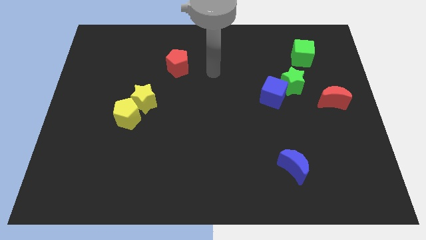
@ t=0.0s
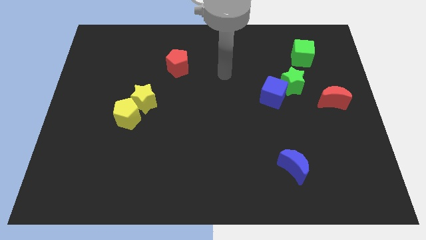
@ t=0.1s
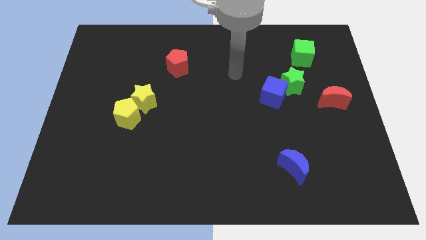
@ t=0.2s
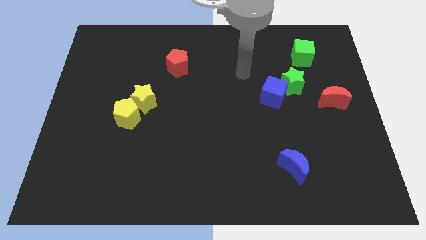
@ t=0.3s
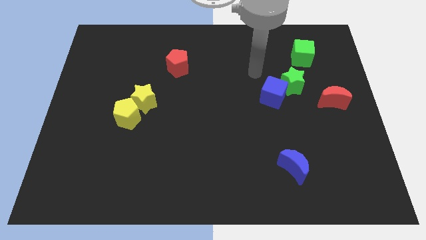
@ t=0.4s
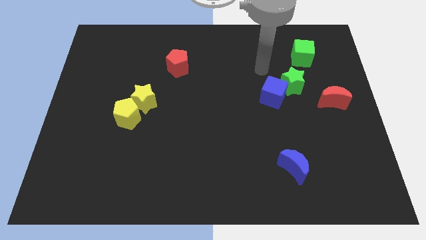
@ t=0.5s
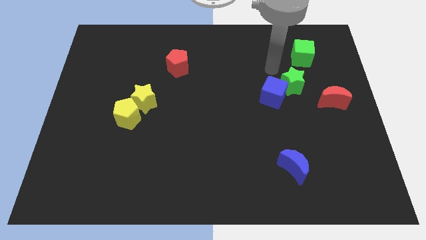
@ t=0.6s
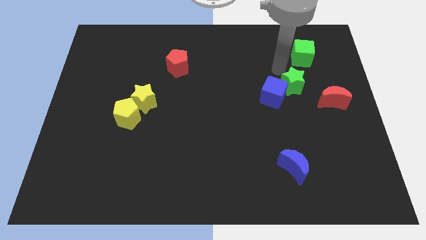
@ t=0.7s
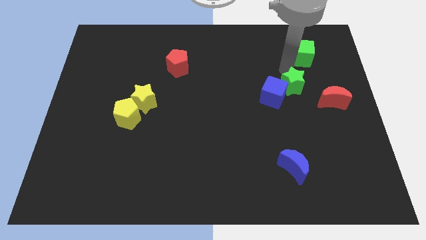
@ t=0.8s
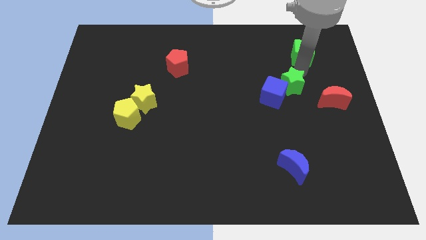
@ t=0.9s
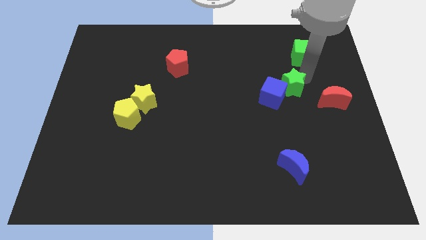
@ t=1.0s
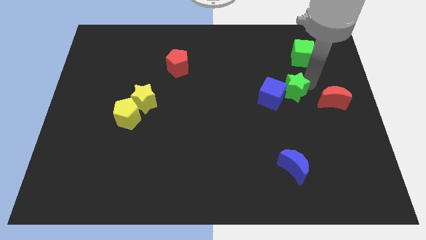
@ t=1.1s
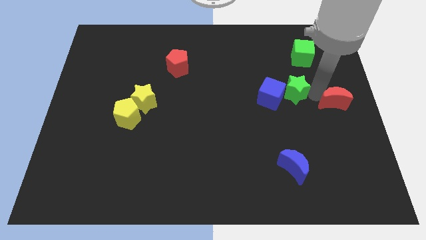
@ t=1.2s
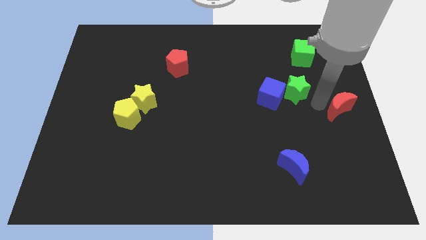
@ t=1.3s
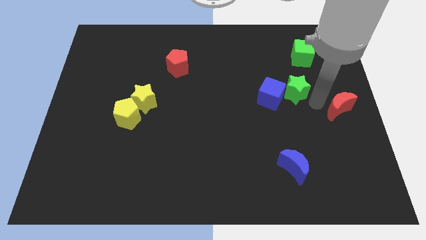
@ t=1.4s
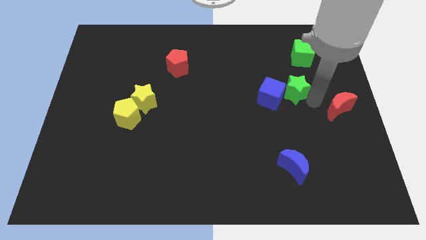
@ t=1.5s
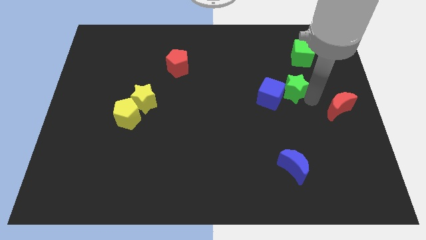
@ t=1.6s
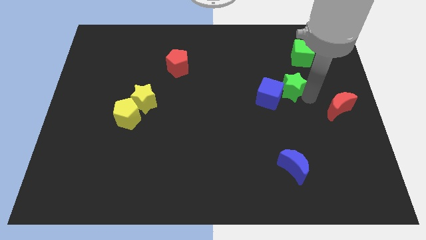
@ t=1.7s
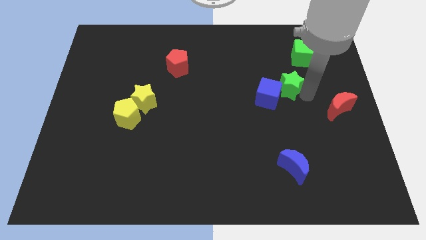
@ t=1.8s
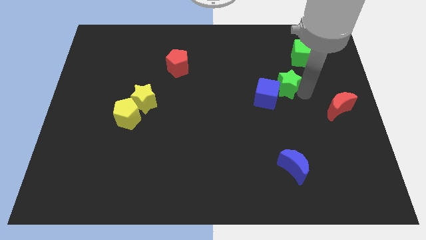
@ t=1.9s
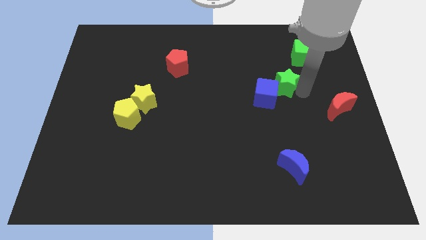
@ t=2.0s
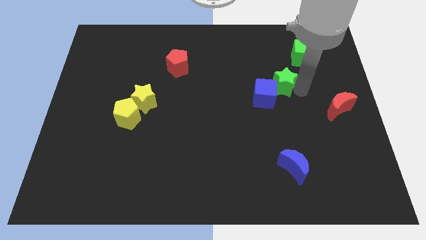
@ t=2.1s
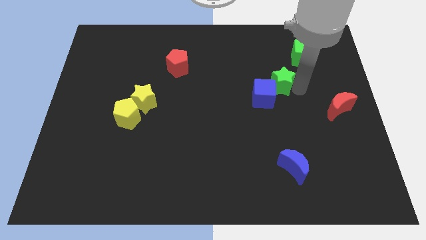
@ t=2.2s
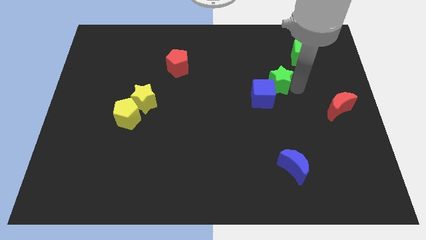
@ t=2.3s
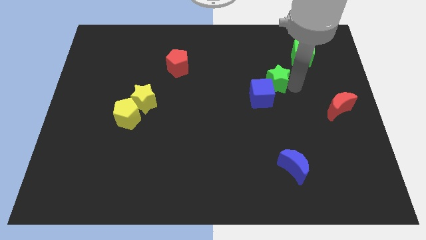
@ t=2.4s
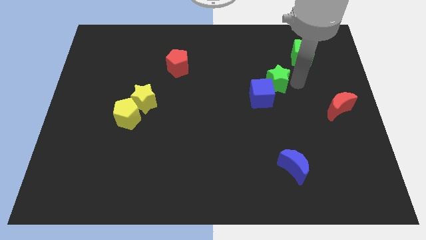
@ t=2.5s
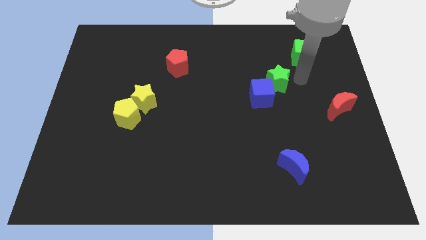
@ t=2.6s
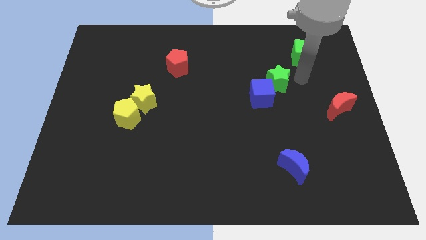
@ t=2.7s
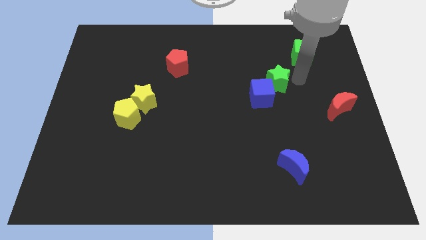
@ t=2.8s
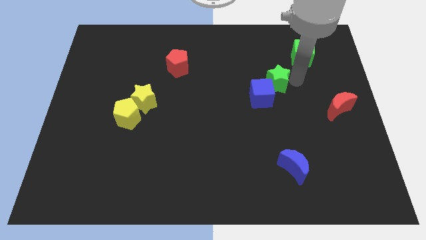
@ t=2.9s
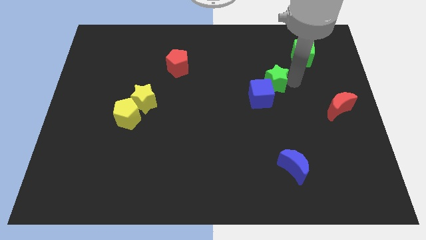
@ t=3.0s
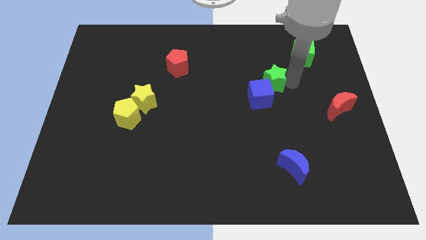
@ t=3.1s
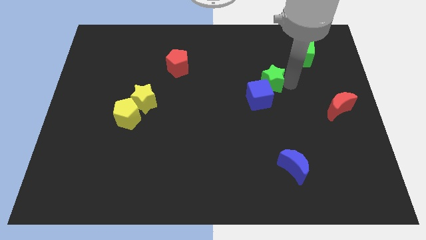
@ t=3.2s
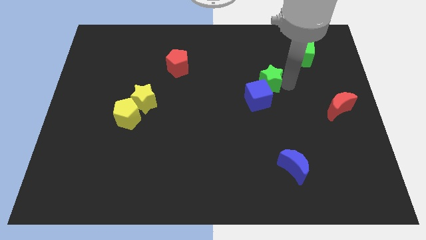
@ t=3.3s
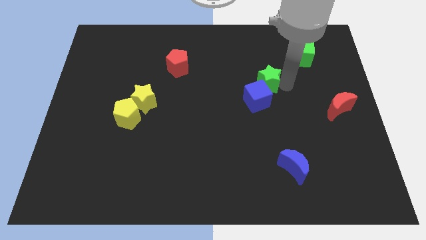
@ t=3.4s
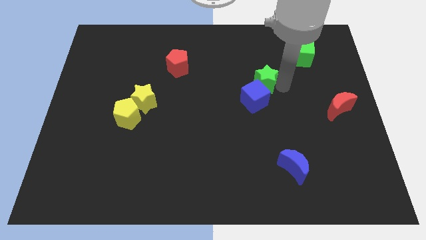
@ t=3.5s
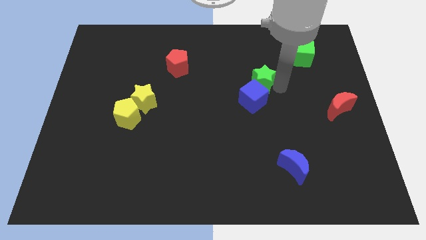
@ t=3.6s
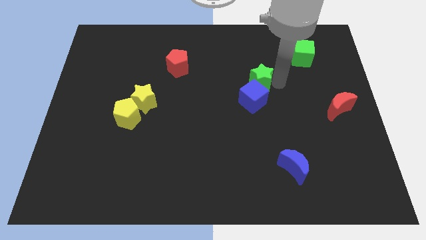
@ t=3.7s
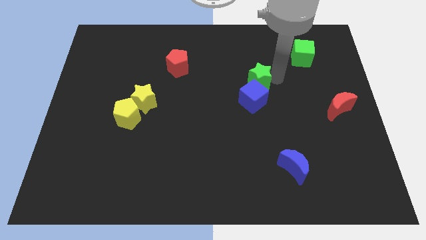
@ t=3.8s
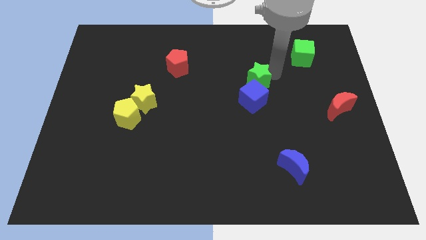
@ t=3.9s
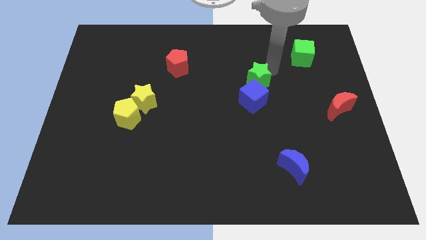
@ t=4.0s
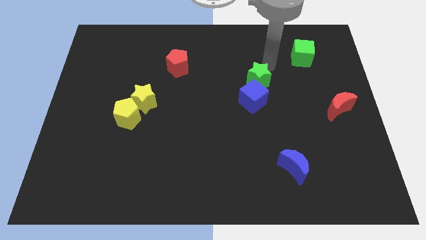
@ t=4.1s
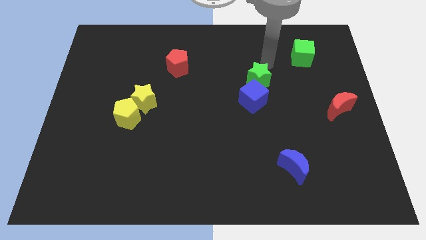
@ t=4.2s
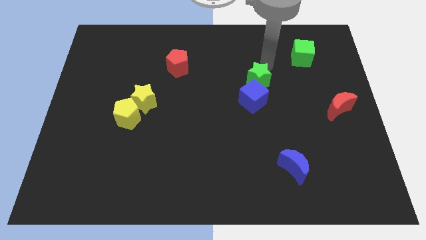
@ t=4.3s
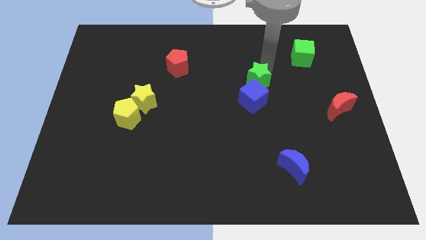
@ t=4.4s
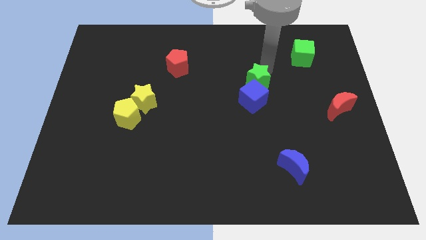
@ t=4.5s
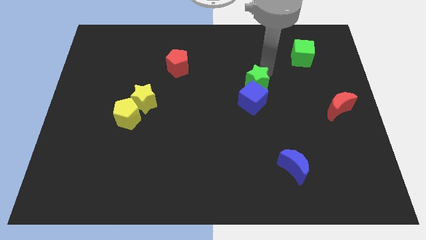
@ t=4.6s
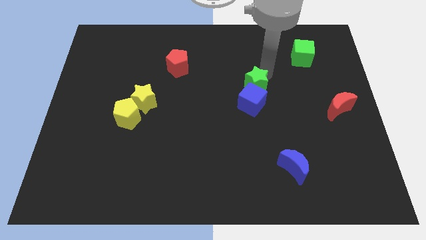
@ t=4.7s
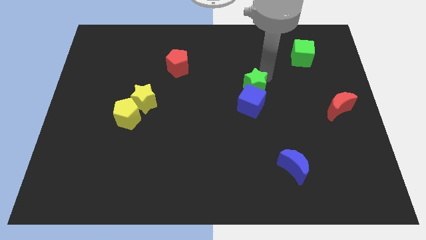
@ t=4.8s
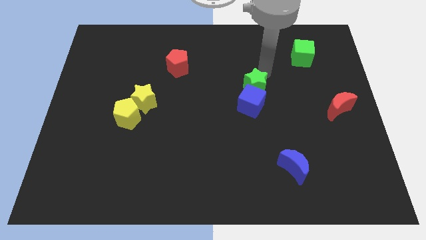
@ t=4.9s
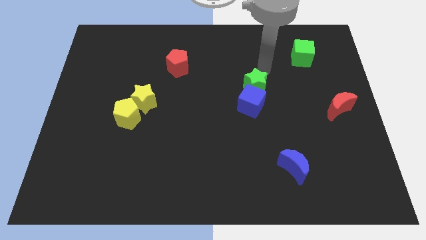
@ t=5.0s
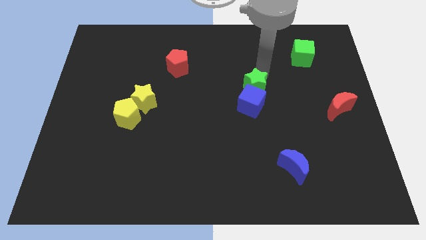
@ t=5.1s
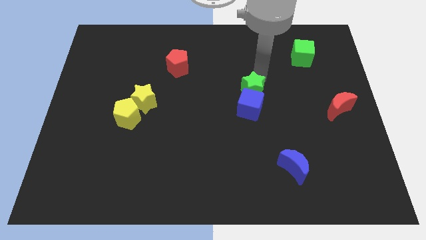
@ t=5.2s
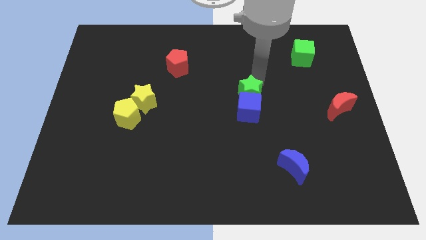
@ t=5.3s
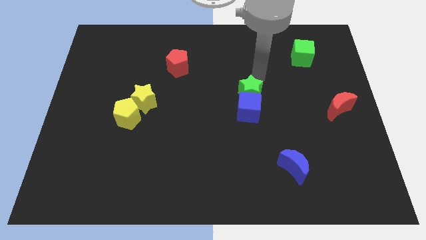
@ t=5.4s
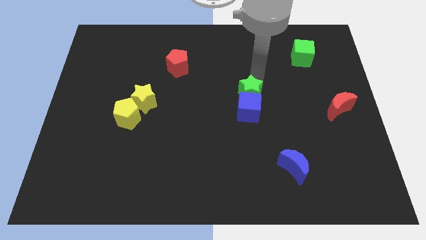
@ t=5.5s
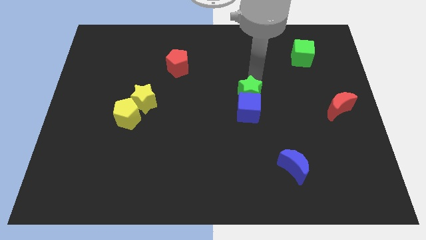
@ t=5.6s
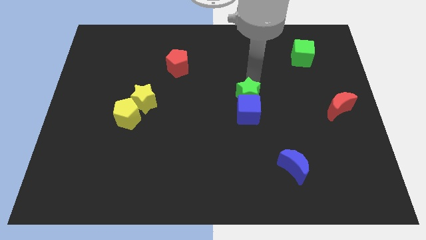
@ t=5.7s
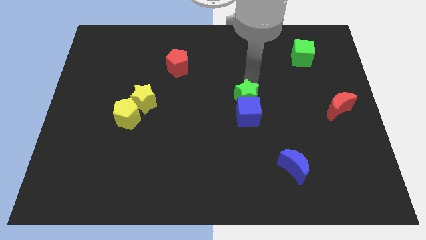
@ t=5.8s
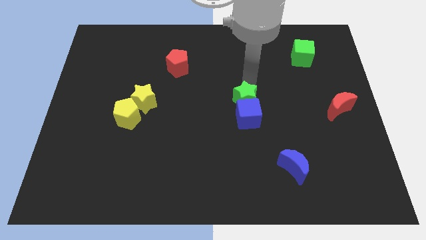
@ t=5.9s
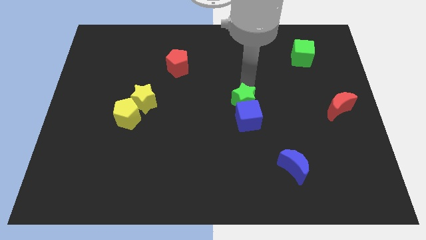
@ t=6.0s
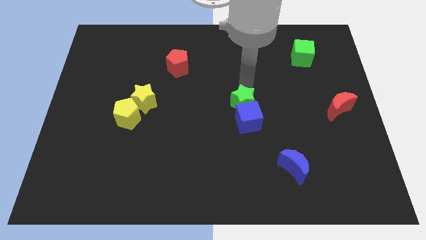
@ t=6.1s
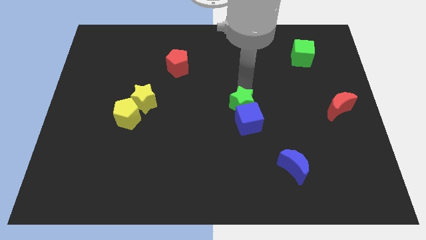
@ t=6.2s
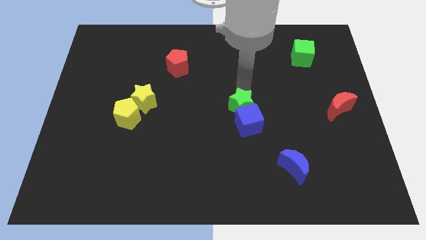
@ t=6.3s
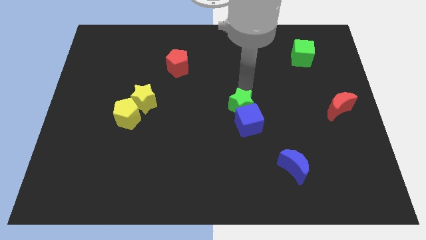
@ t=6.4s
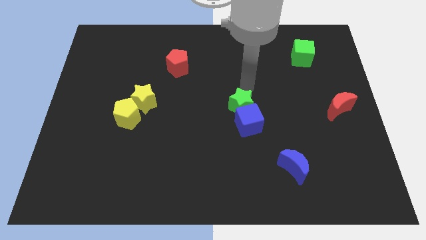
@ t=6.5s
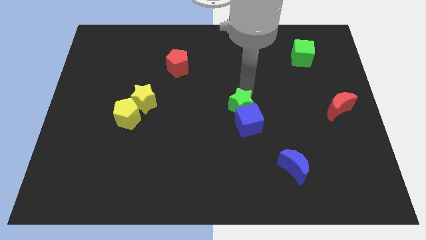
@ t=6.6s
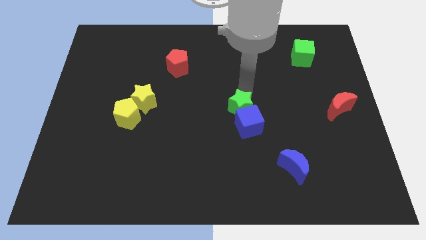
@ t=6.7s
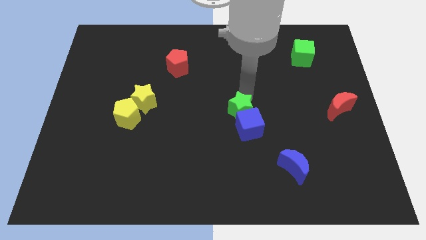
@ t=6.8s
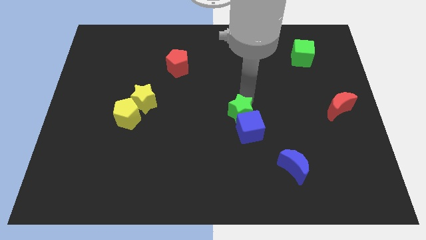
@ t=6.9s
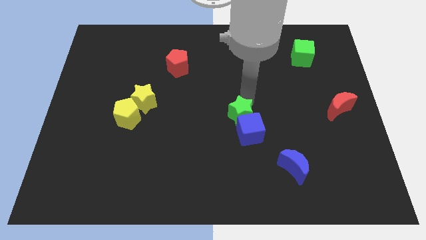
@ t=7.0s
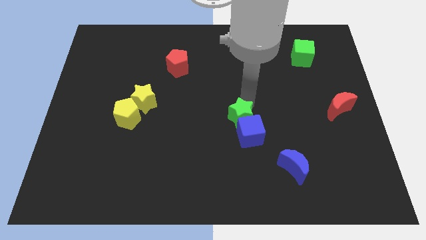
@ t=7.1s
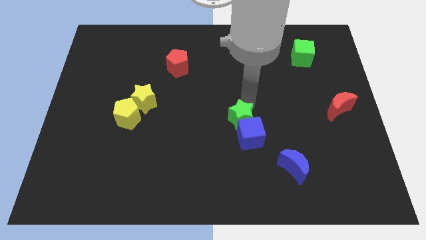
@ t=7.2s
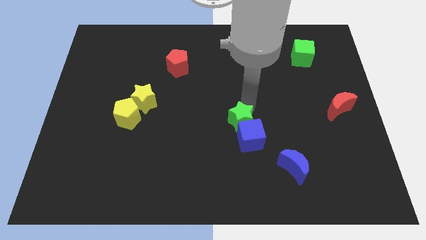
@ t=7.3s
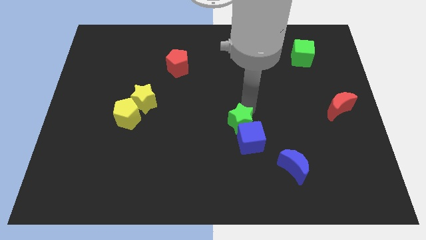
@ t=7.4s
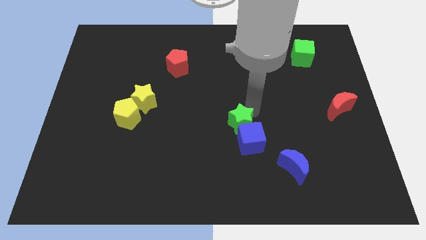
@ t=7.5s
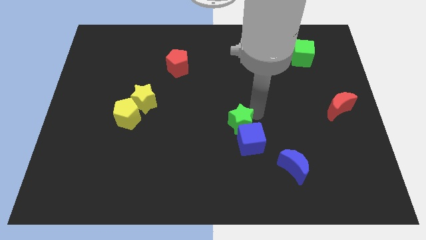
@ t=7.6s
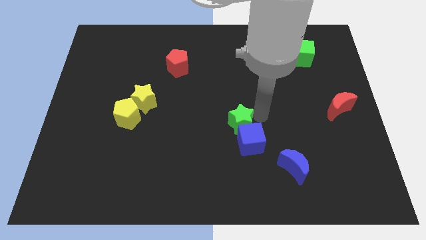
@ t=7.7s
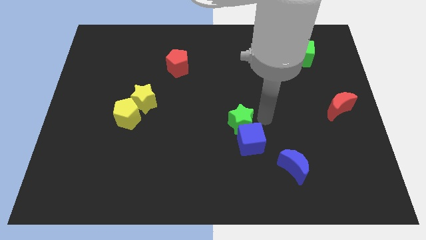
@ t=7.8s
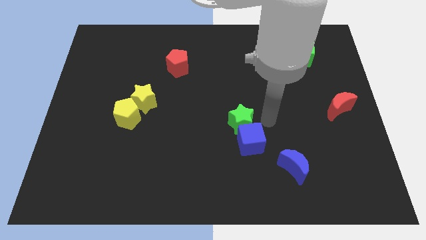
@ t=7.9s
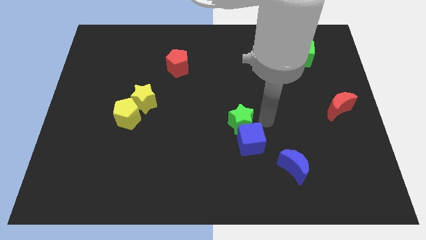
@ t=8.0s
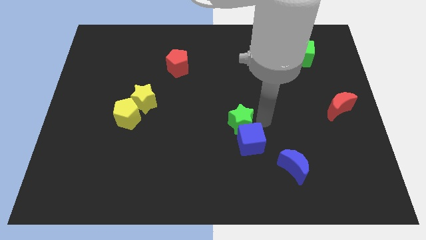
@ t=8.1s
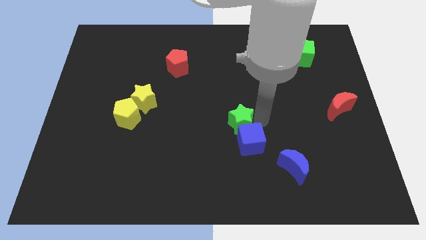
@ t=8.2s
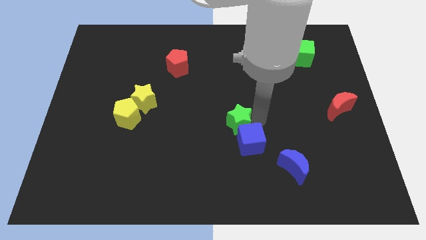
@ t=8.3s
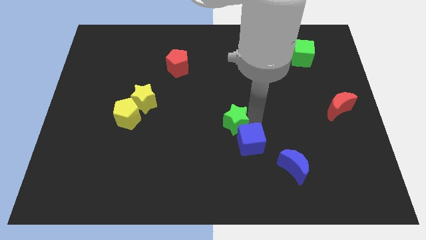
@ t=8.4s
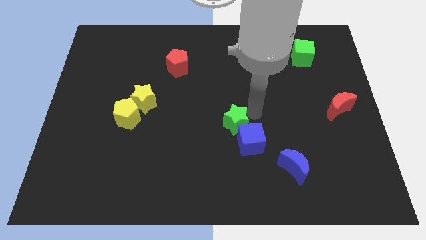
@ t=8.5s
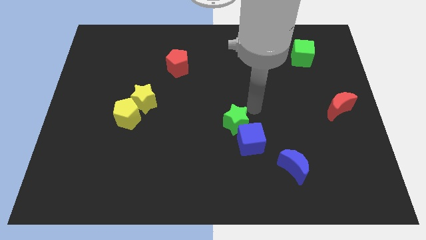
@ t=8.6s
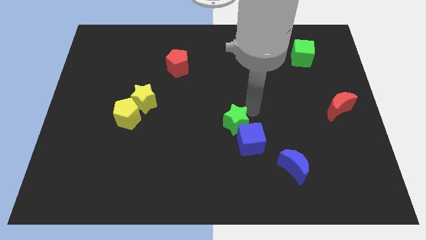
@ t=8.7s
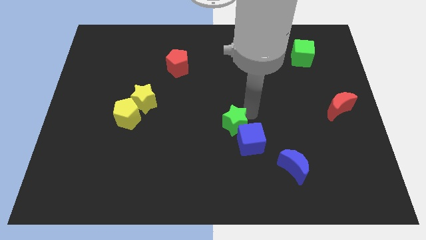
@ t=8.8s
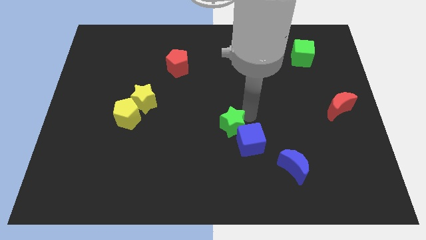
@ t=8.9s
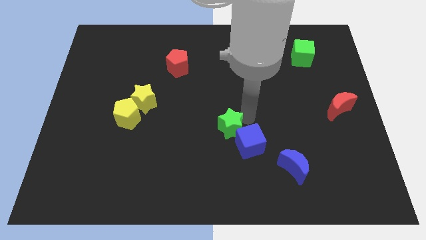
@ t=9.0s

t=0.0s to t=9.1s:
slide the green star diagonally down and left
